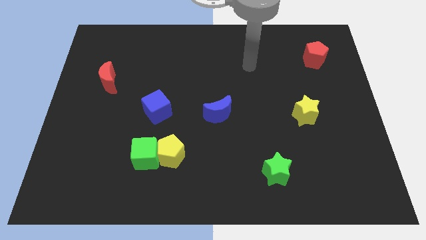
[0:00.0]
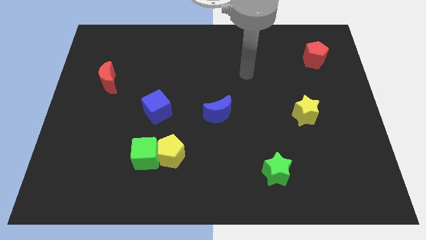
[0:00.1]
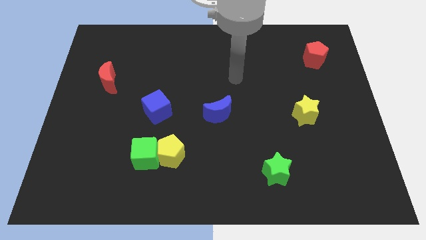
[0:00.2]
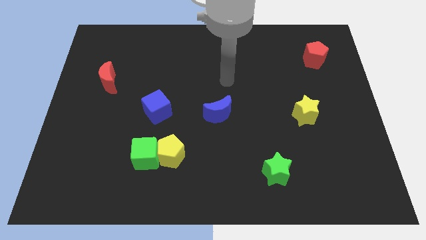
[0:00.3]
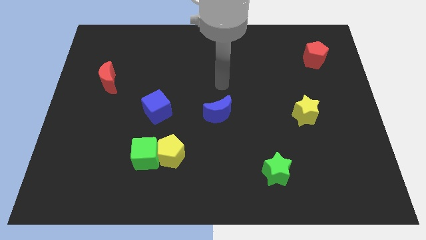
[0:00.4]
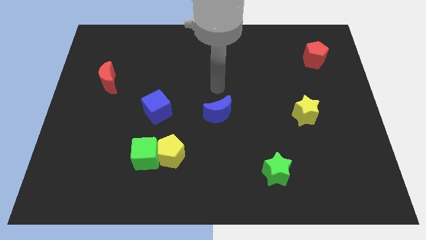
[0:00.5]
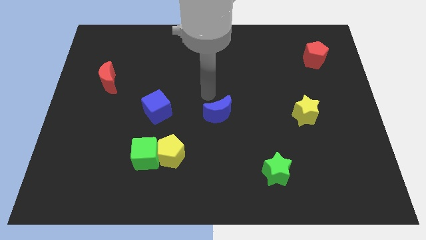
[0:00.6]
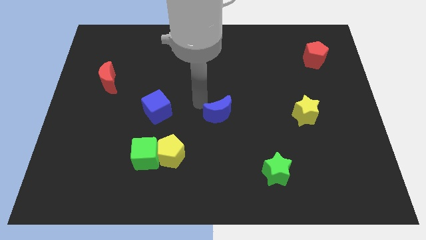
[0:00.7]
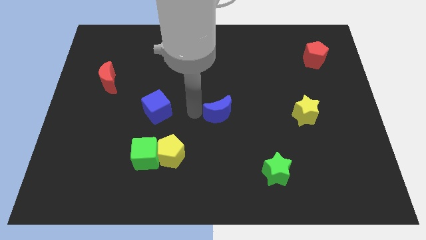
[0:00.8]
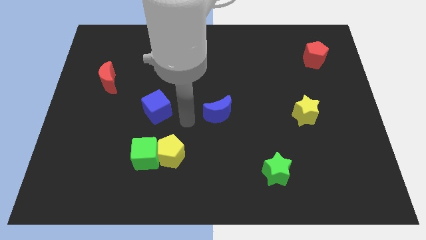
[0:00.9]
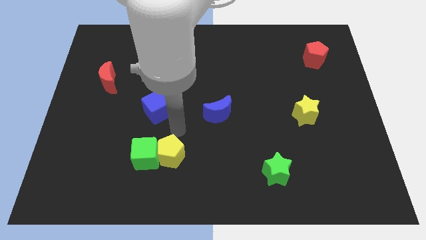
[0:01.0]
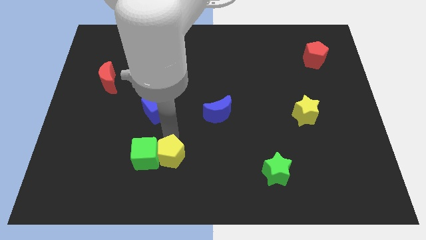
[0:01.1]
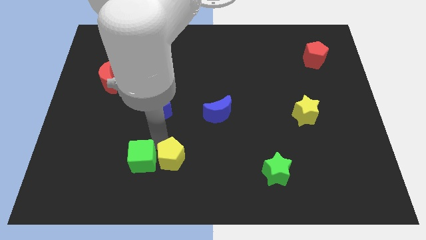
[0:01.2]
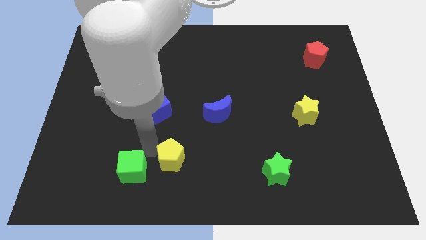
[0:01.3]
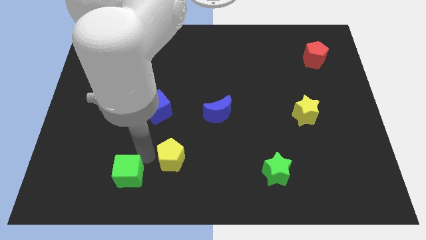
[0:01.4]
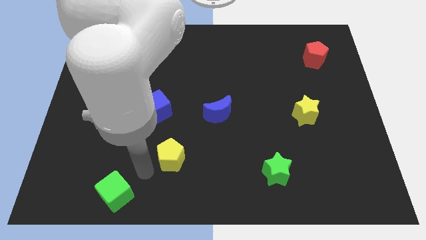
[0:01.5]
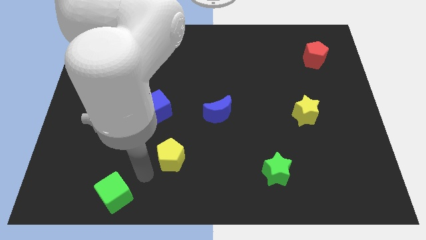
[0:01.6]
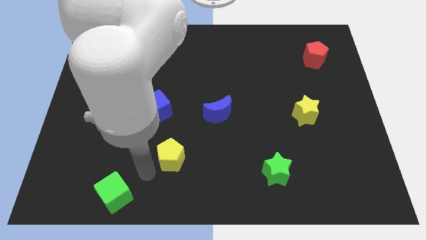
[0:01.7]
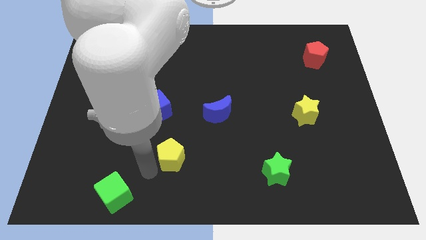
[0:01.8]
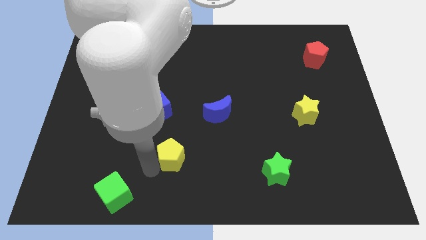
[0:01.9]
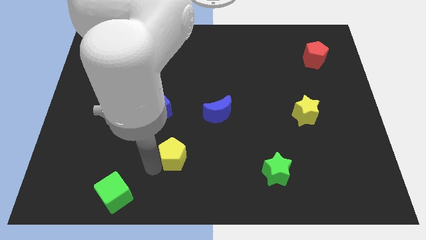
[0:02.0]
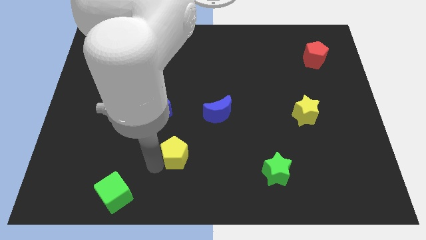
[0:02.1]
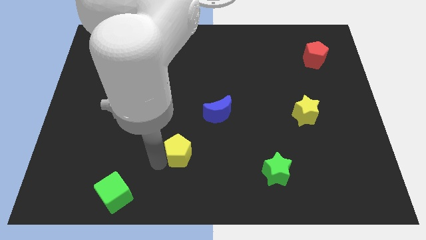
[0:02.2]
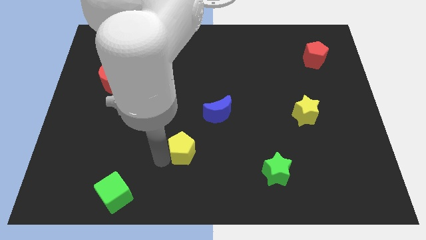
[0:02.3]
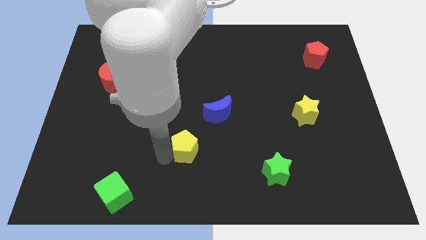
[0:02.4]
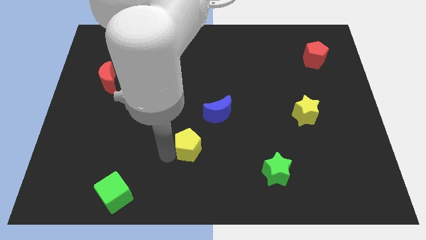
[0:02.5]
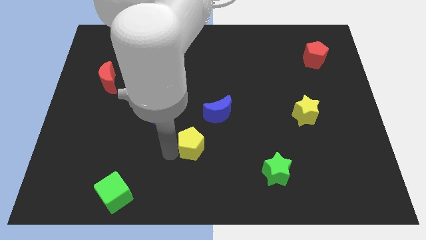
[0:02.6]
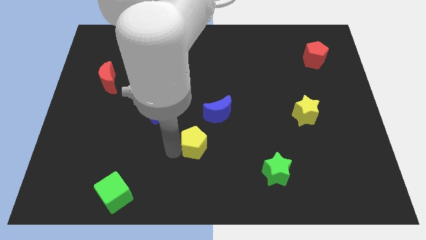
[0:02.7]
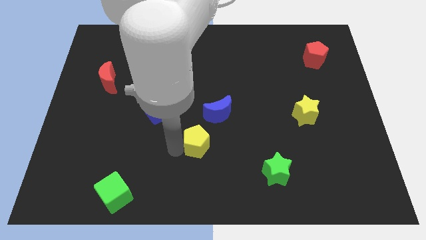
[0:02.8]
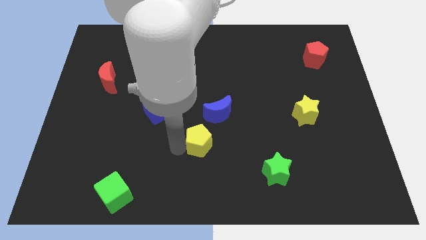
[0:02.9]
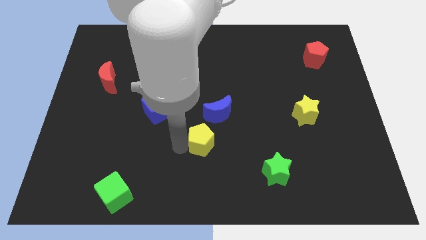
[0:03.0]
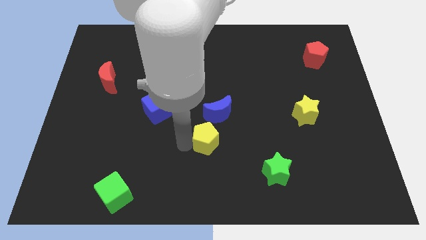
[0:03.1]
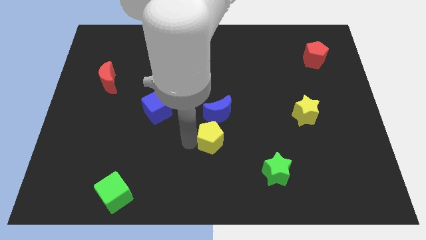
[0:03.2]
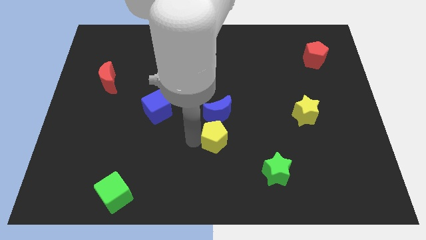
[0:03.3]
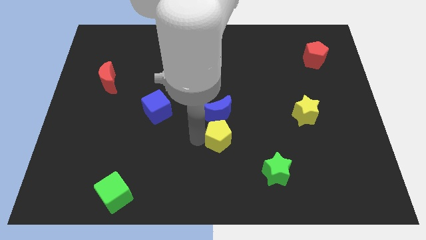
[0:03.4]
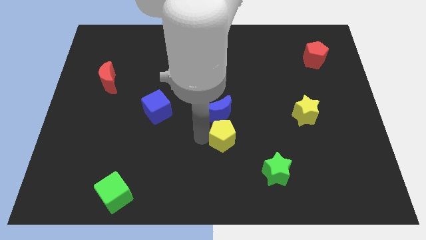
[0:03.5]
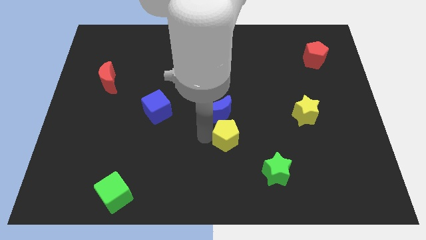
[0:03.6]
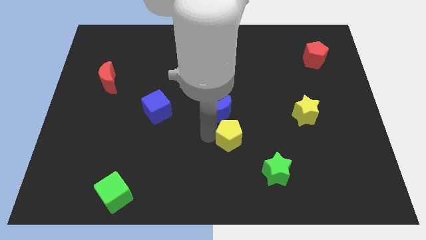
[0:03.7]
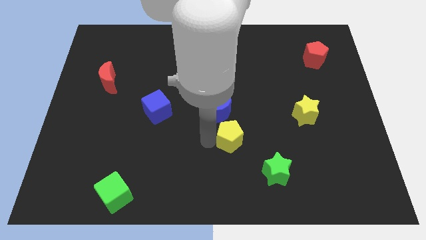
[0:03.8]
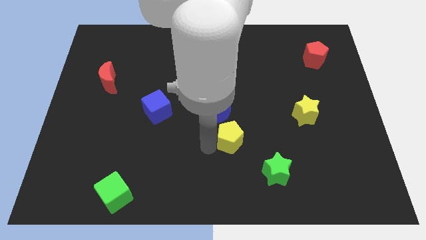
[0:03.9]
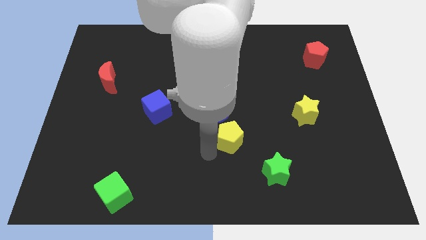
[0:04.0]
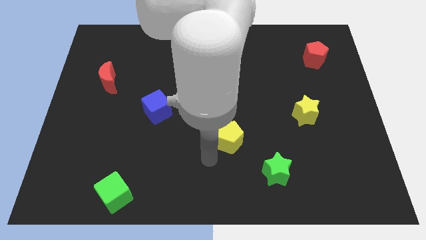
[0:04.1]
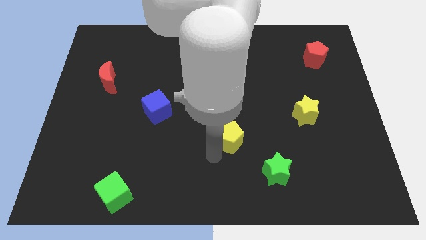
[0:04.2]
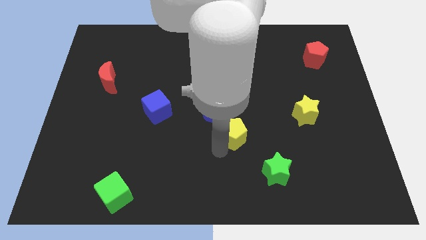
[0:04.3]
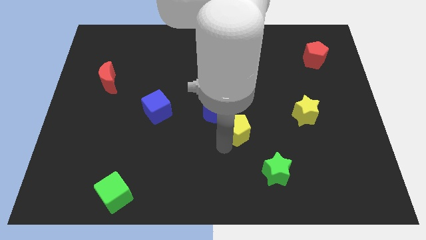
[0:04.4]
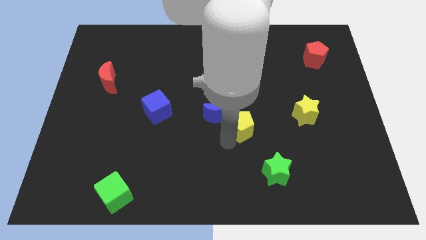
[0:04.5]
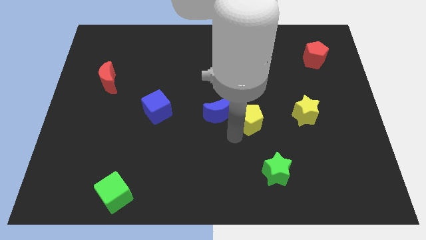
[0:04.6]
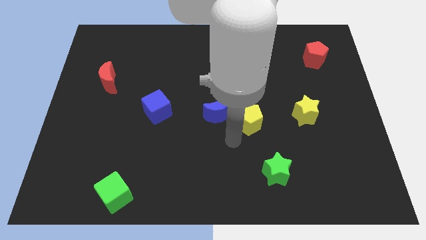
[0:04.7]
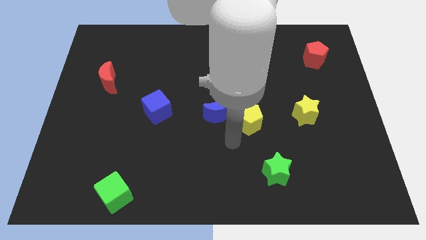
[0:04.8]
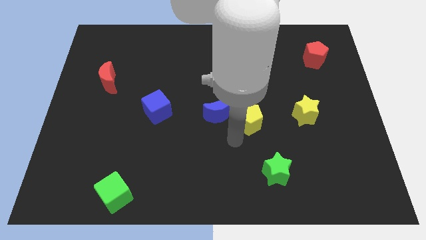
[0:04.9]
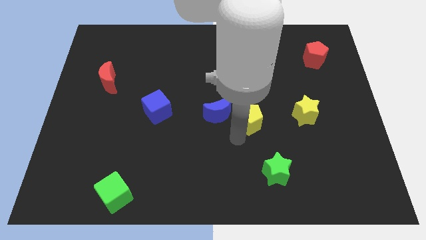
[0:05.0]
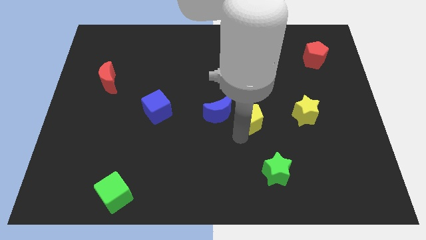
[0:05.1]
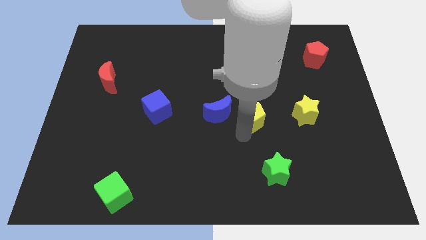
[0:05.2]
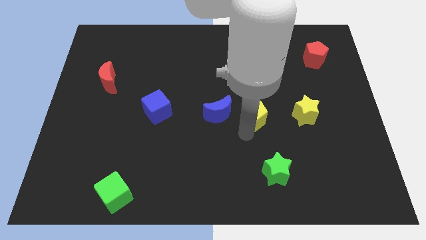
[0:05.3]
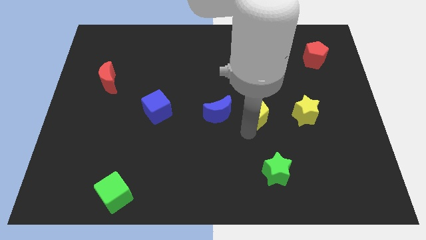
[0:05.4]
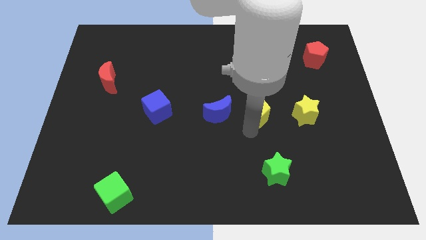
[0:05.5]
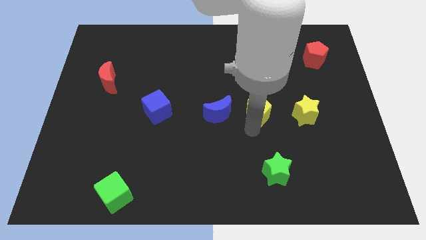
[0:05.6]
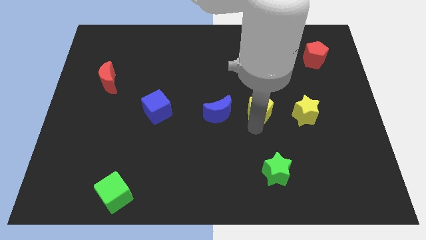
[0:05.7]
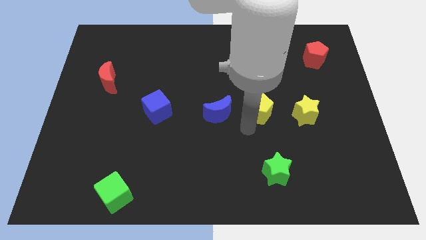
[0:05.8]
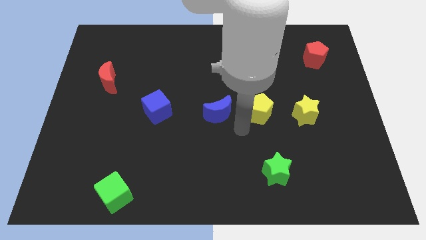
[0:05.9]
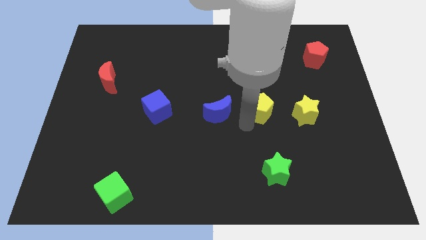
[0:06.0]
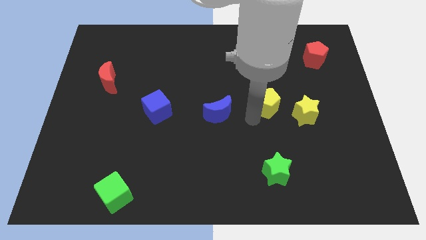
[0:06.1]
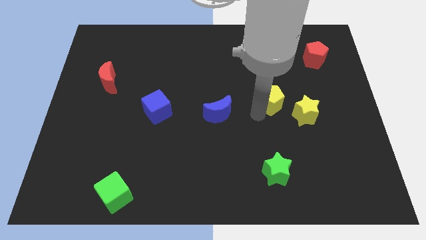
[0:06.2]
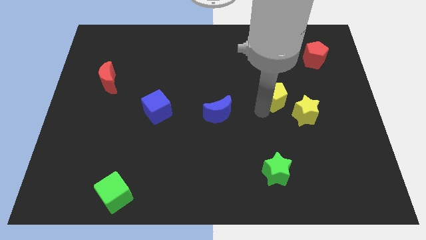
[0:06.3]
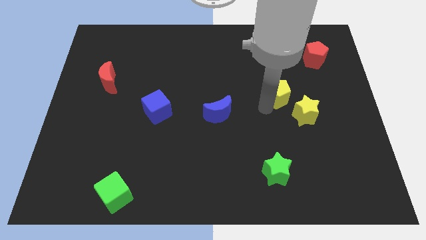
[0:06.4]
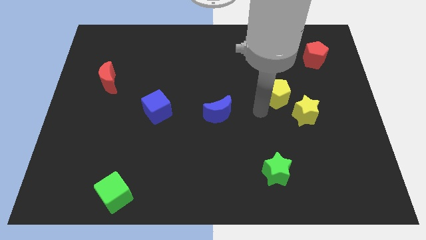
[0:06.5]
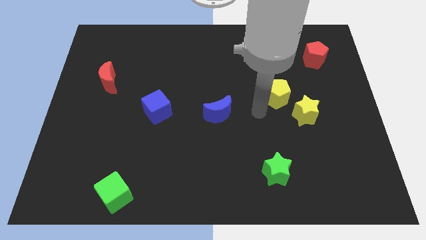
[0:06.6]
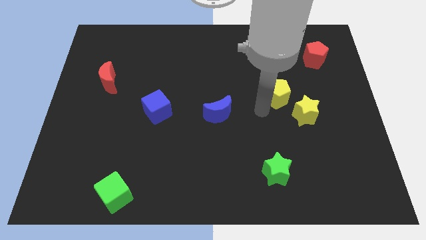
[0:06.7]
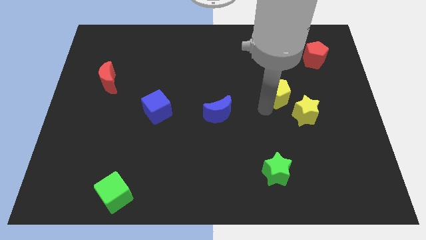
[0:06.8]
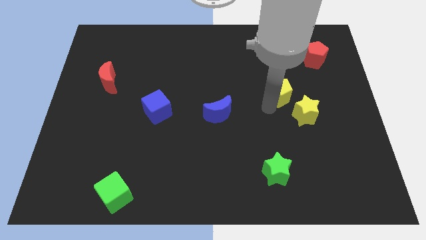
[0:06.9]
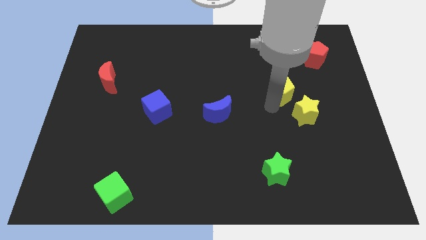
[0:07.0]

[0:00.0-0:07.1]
slide the yellow pentagon to the top side of the yellow star

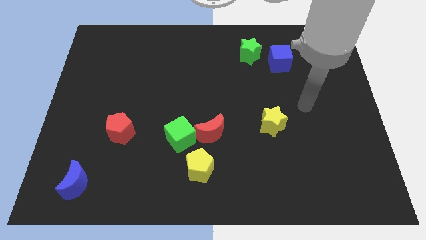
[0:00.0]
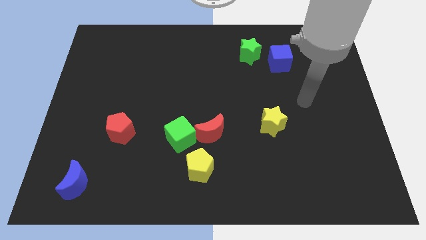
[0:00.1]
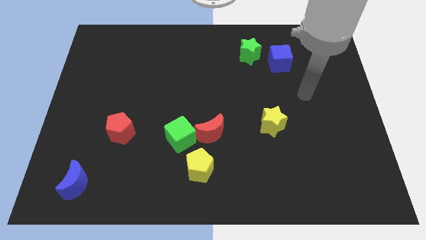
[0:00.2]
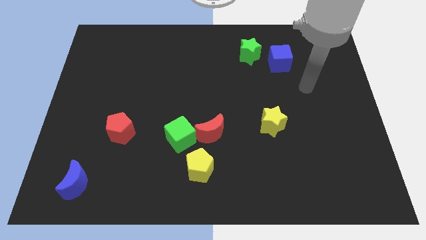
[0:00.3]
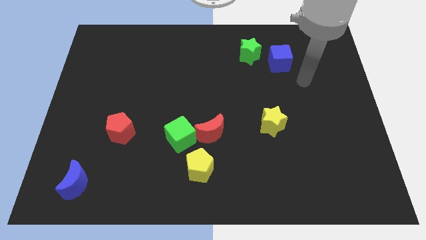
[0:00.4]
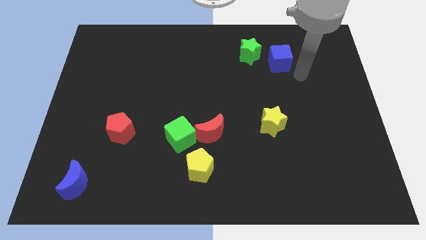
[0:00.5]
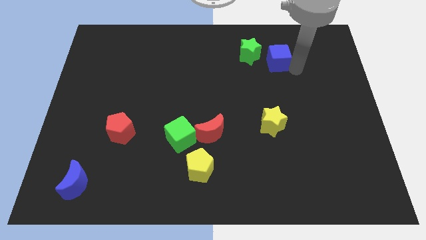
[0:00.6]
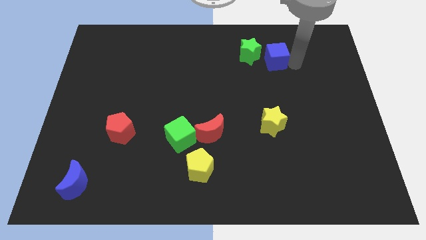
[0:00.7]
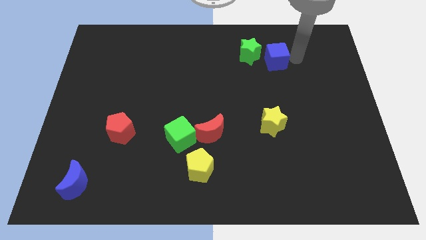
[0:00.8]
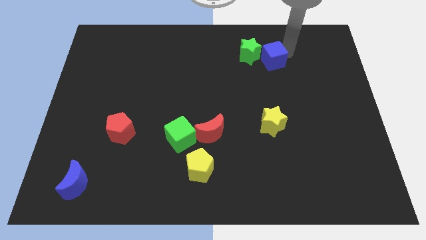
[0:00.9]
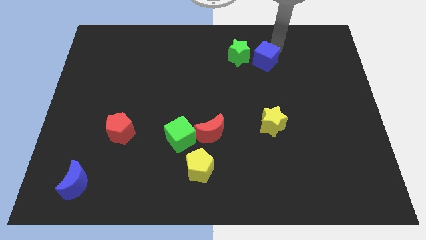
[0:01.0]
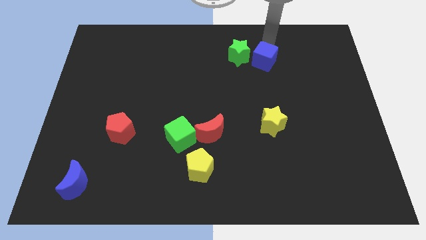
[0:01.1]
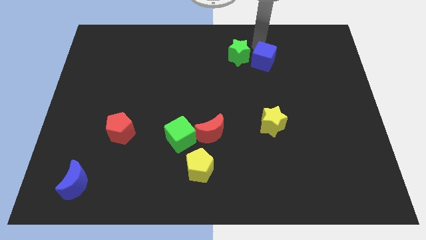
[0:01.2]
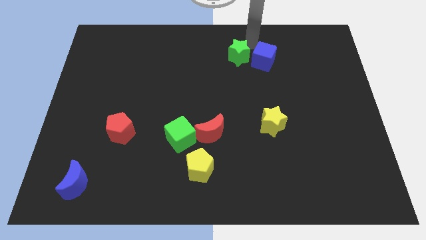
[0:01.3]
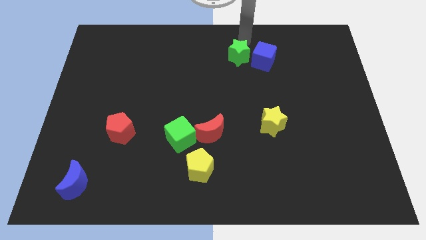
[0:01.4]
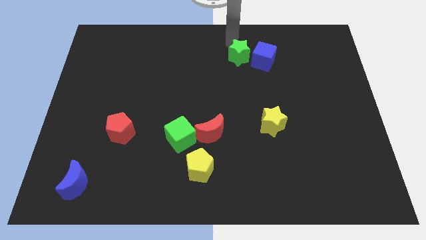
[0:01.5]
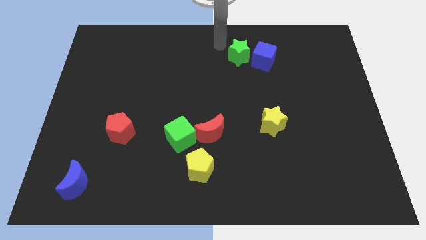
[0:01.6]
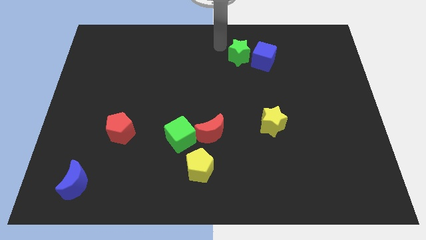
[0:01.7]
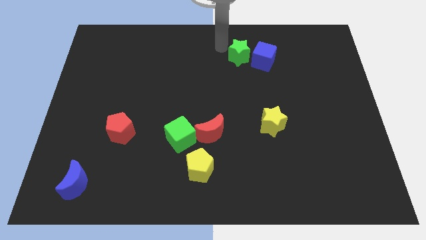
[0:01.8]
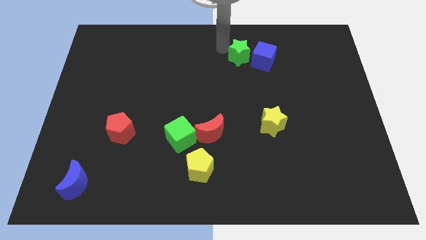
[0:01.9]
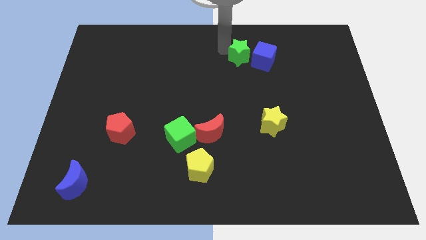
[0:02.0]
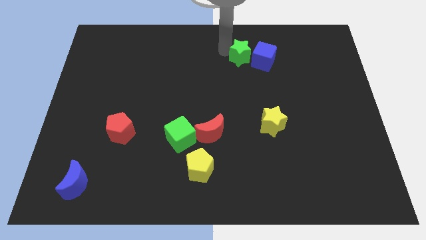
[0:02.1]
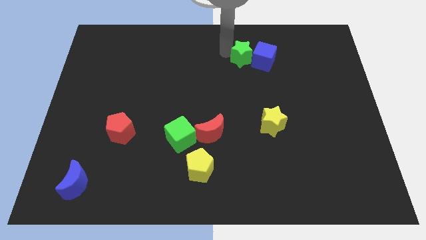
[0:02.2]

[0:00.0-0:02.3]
put the green star diagonally down and to the left of the blue cube
